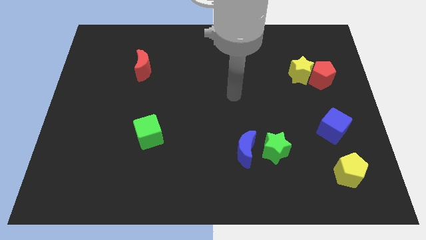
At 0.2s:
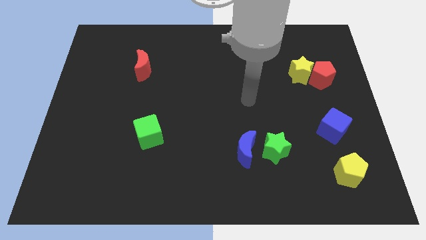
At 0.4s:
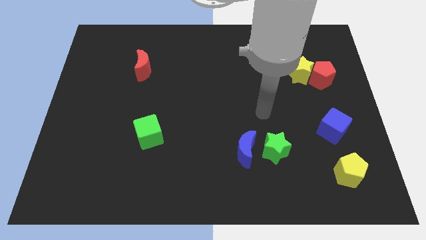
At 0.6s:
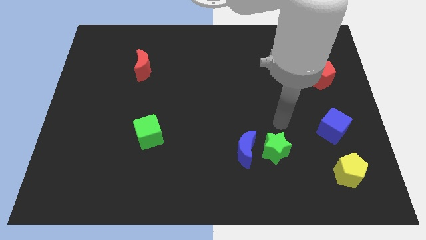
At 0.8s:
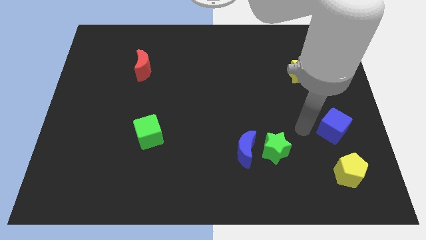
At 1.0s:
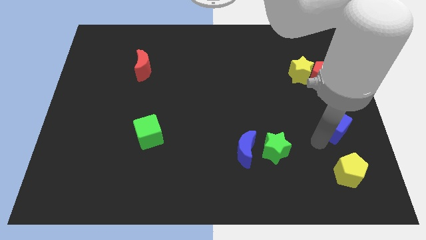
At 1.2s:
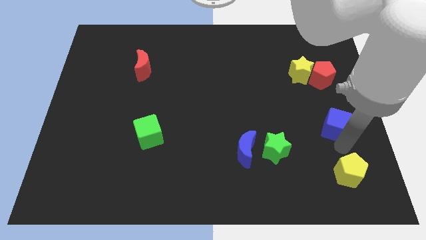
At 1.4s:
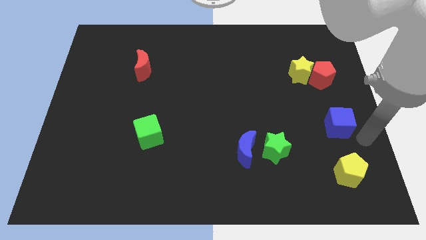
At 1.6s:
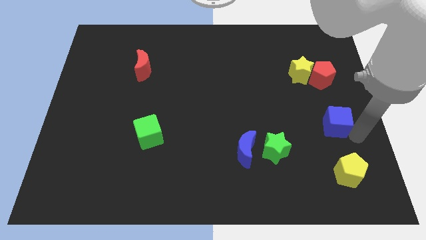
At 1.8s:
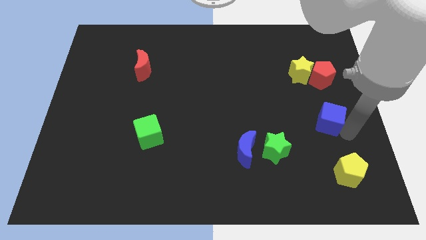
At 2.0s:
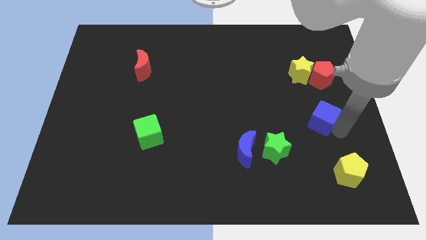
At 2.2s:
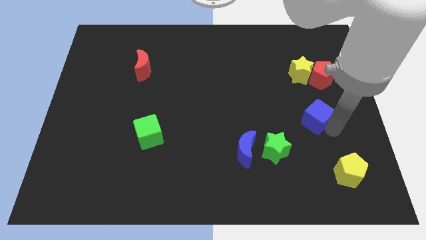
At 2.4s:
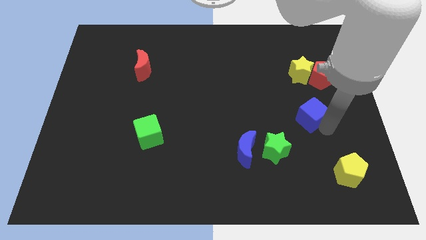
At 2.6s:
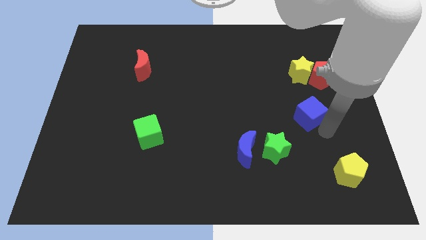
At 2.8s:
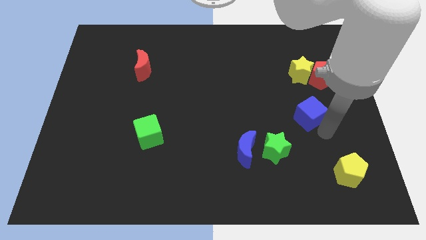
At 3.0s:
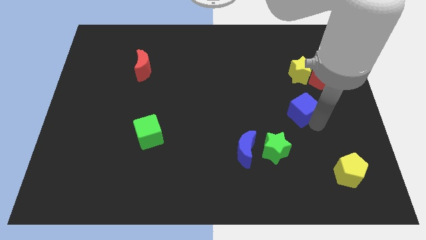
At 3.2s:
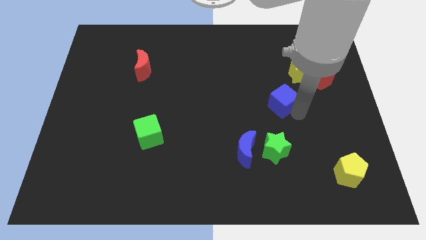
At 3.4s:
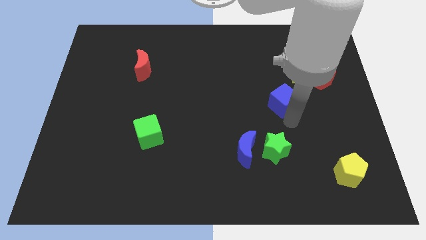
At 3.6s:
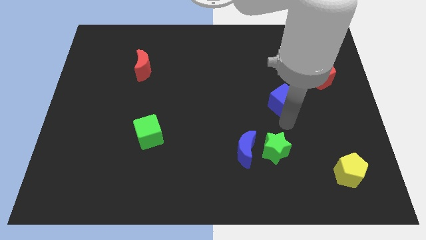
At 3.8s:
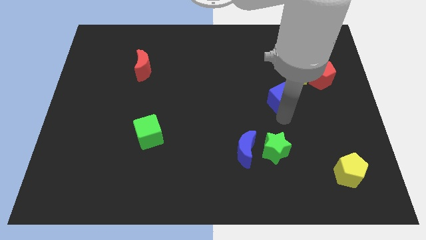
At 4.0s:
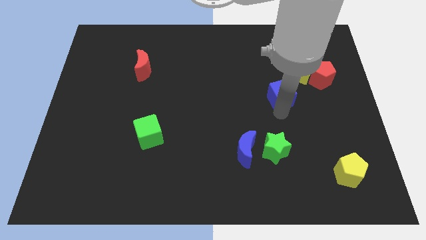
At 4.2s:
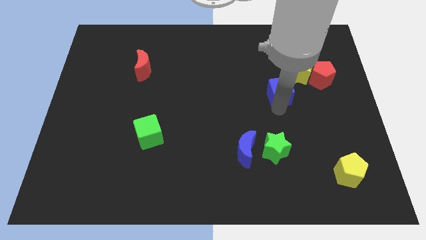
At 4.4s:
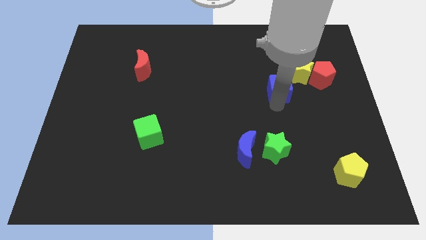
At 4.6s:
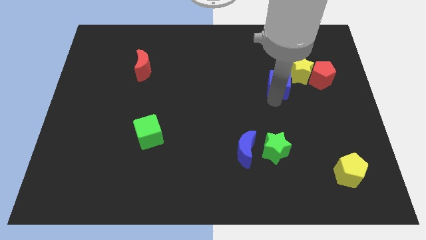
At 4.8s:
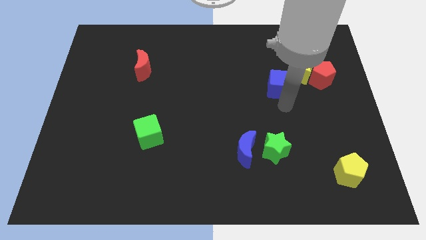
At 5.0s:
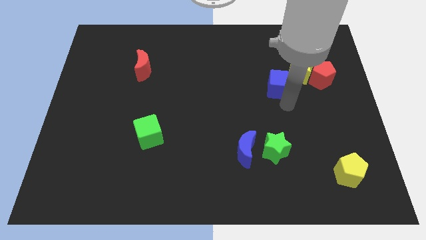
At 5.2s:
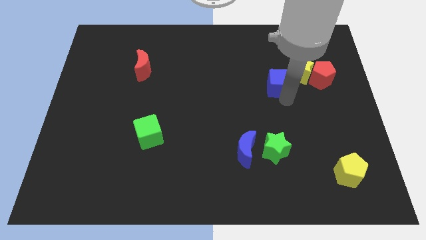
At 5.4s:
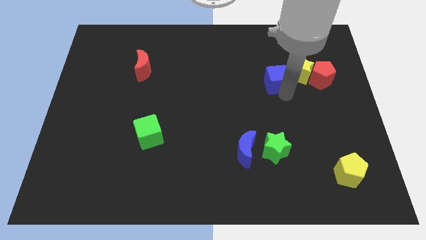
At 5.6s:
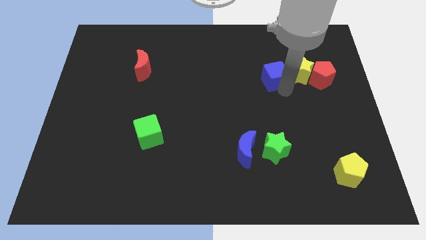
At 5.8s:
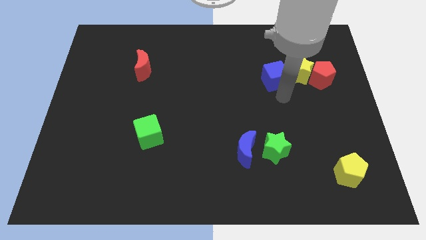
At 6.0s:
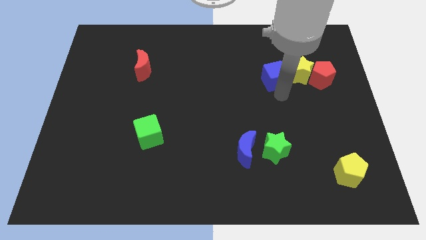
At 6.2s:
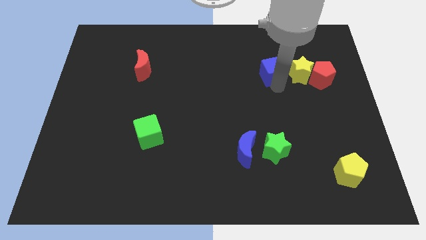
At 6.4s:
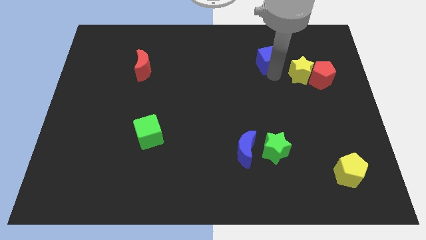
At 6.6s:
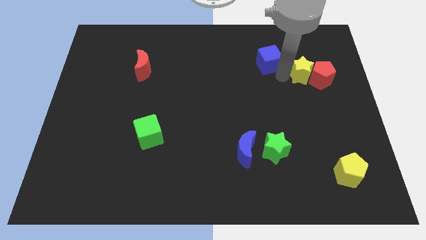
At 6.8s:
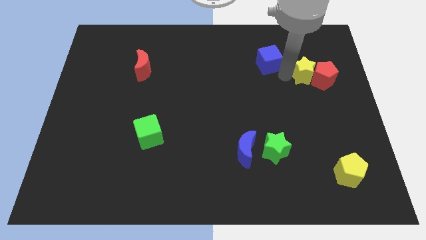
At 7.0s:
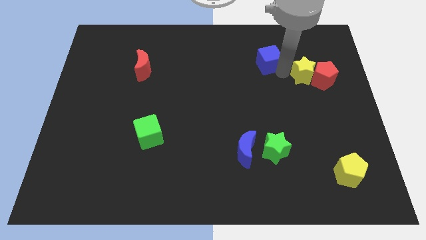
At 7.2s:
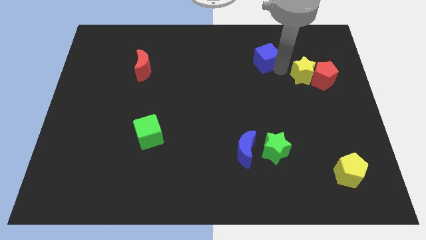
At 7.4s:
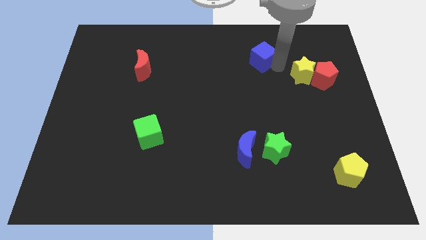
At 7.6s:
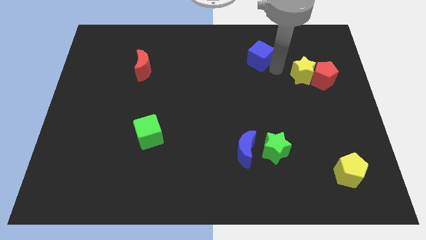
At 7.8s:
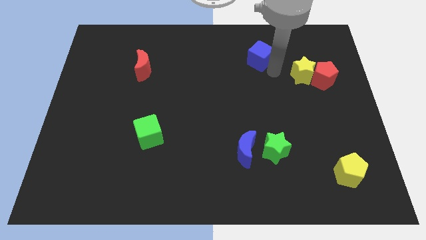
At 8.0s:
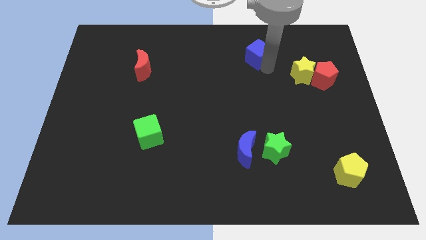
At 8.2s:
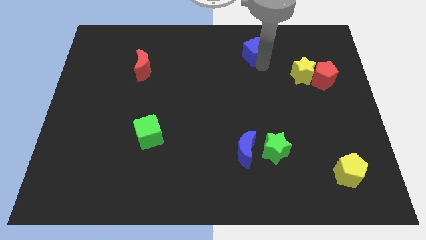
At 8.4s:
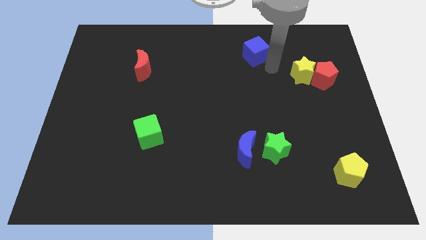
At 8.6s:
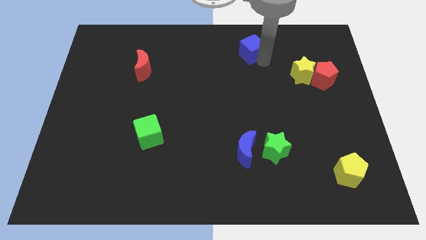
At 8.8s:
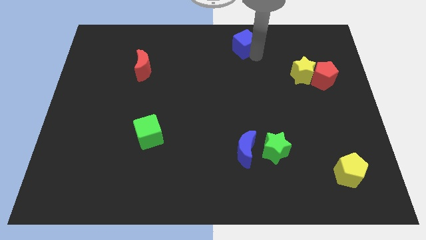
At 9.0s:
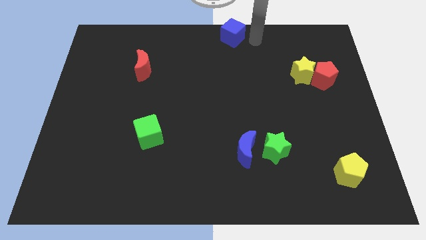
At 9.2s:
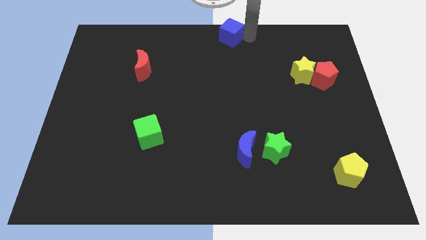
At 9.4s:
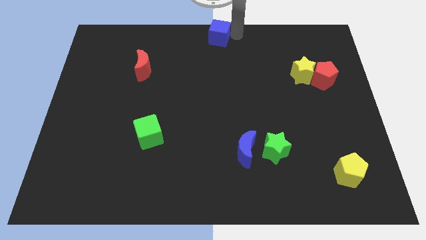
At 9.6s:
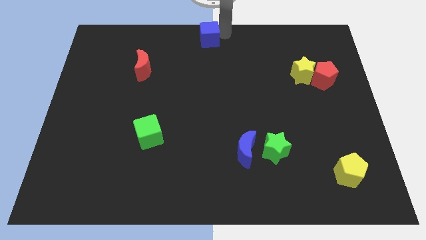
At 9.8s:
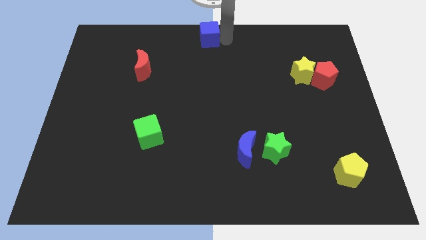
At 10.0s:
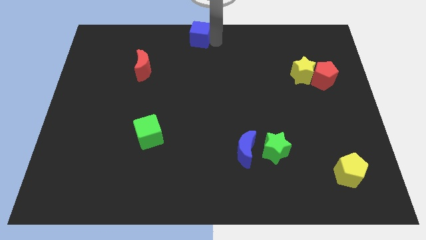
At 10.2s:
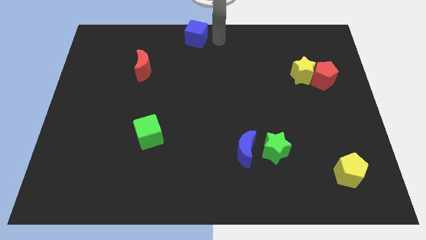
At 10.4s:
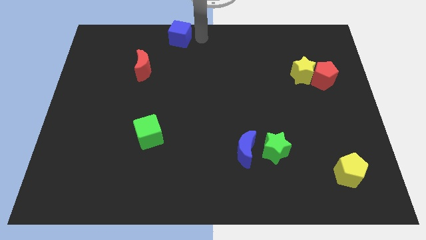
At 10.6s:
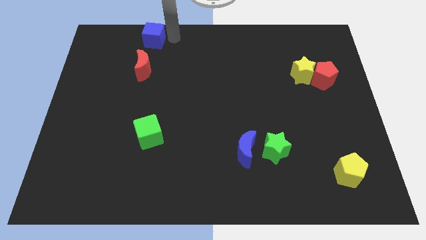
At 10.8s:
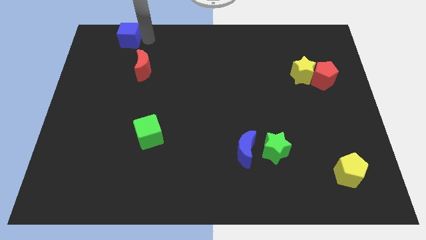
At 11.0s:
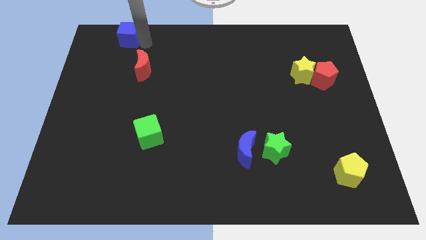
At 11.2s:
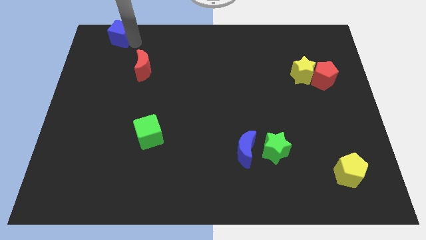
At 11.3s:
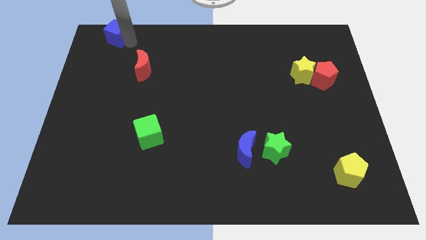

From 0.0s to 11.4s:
move the blue cube to the upper left corner
